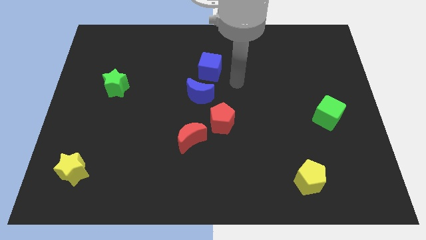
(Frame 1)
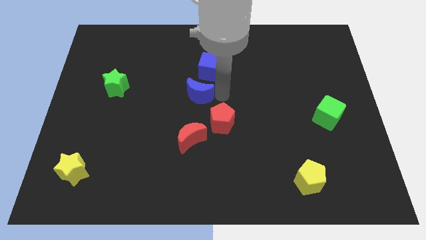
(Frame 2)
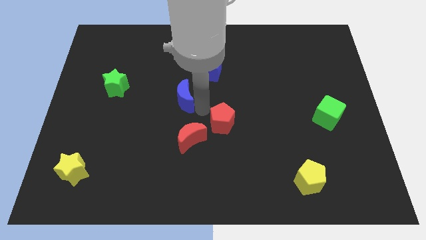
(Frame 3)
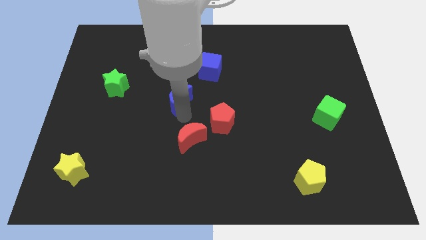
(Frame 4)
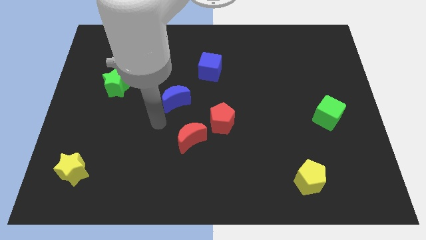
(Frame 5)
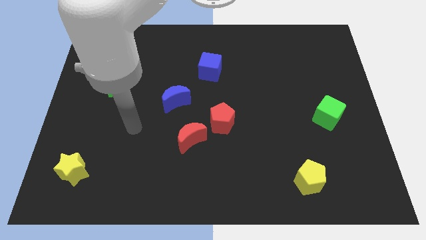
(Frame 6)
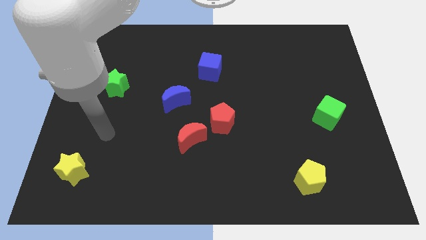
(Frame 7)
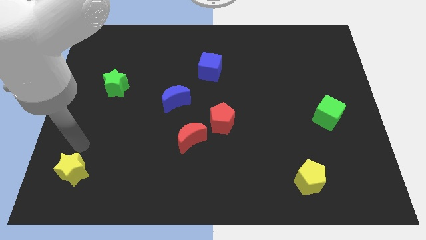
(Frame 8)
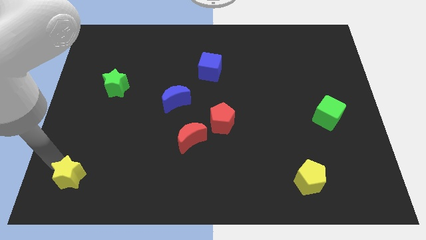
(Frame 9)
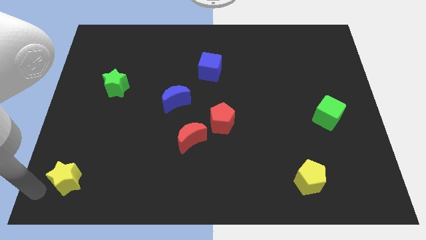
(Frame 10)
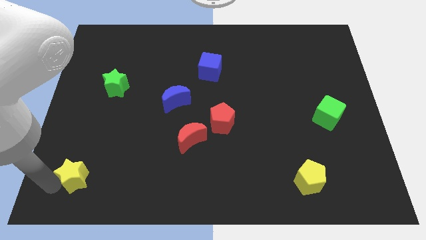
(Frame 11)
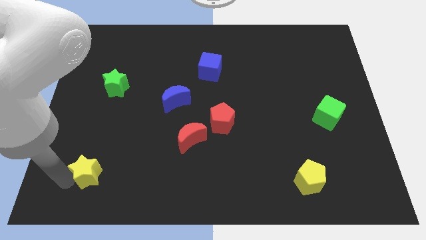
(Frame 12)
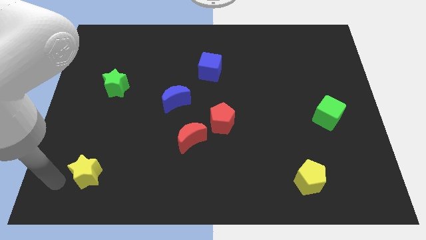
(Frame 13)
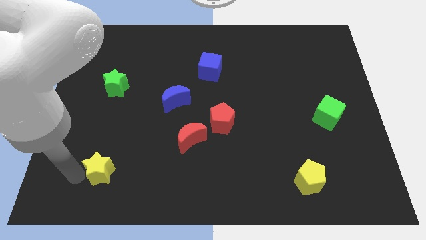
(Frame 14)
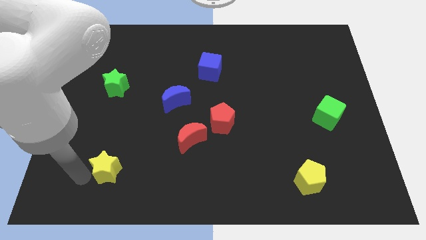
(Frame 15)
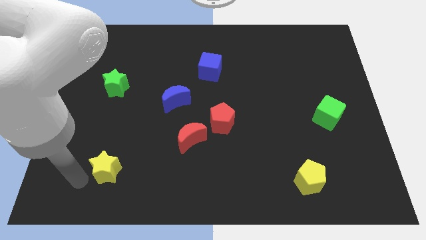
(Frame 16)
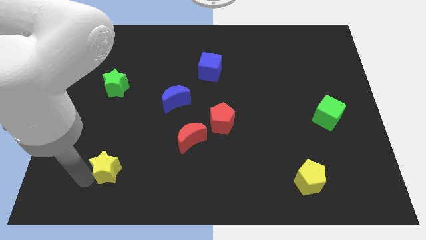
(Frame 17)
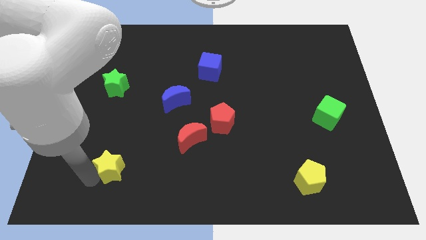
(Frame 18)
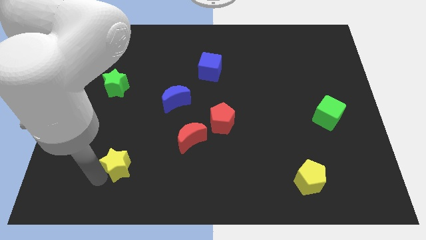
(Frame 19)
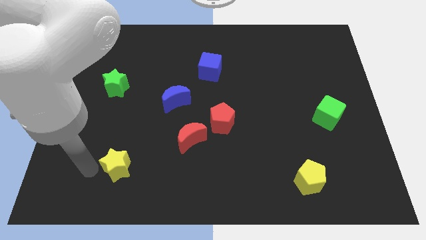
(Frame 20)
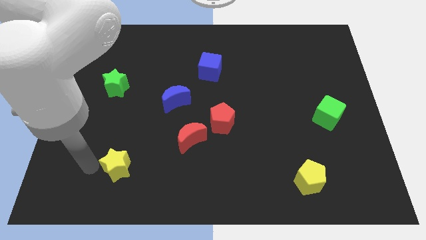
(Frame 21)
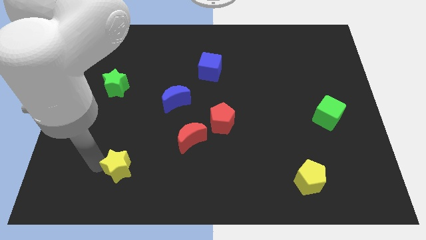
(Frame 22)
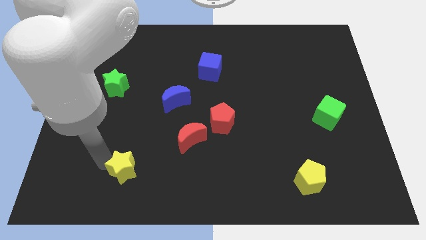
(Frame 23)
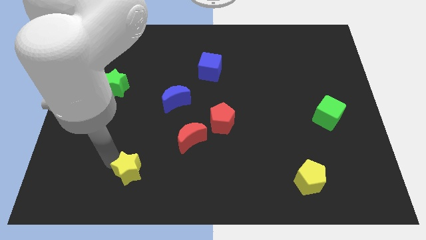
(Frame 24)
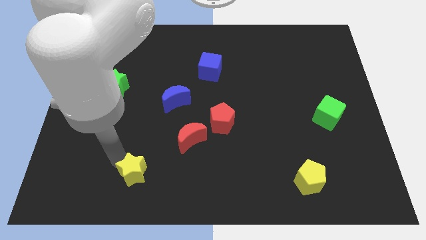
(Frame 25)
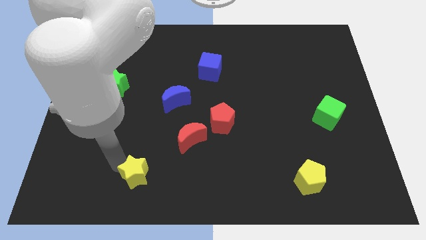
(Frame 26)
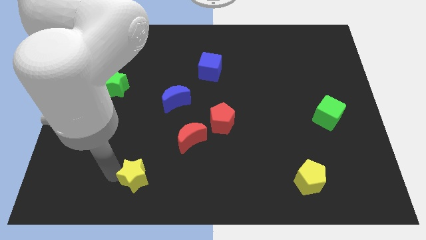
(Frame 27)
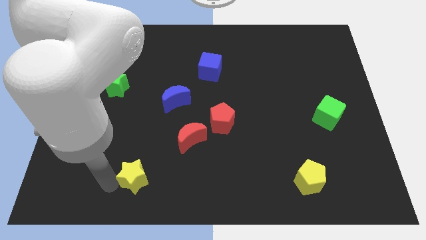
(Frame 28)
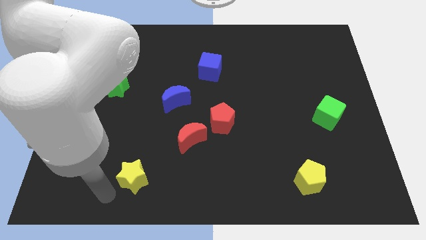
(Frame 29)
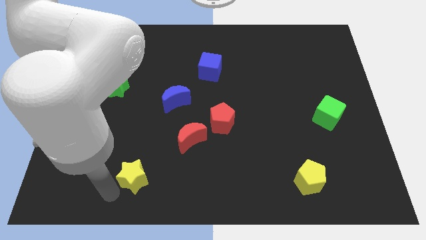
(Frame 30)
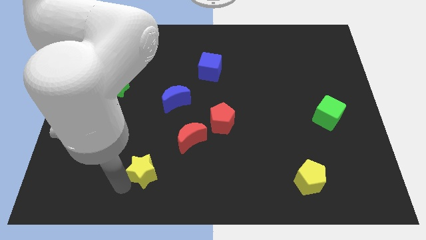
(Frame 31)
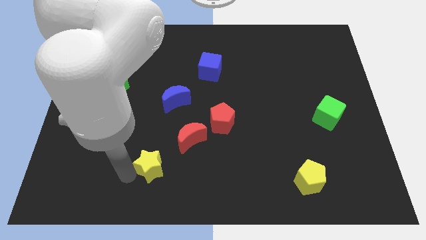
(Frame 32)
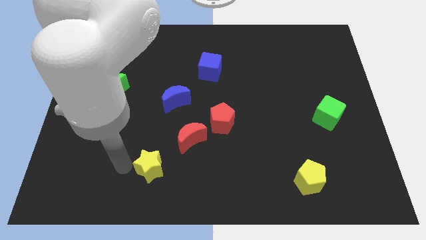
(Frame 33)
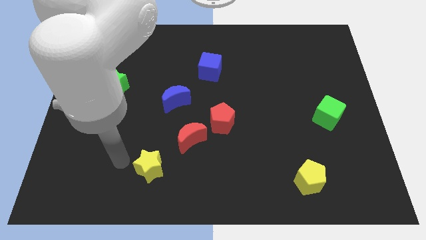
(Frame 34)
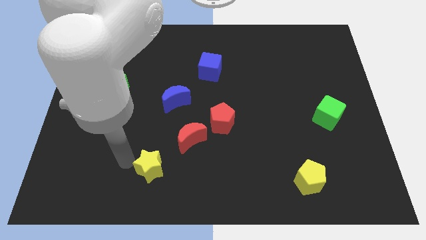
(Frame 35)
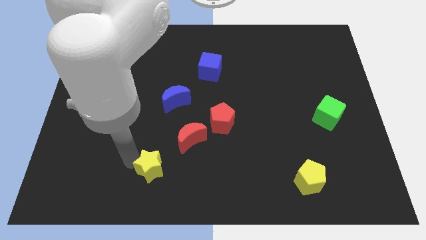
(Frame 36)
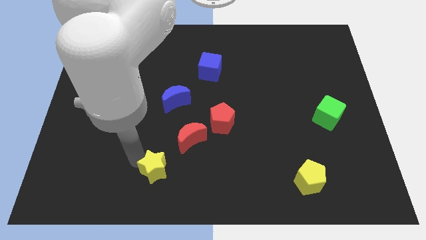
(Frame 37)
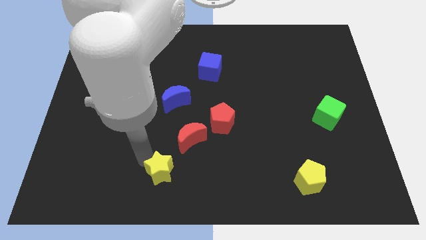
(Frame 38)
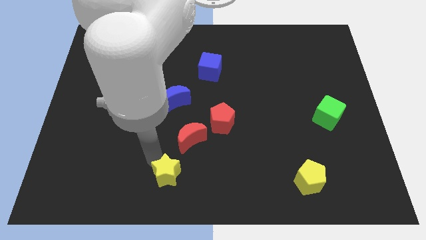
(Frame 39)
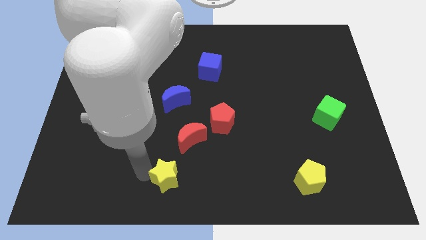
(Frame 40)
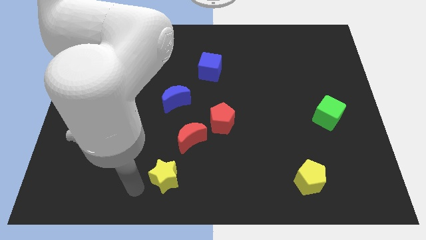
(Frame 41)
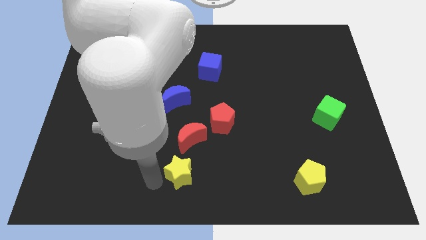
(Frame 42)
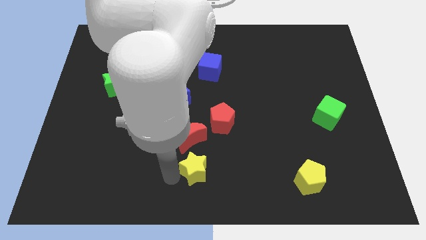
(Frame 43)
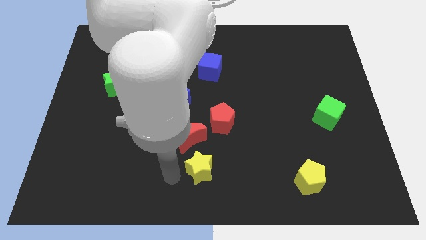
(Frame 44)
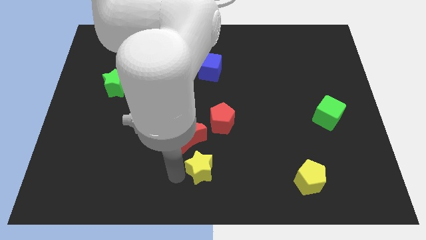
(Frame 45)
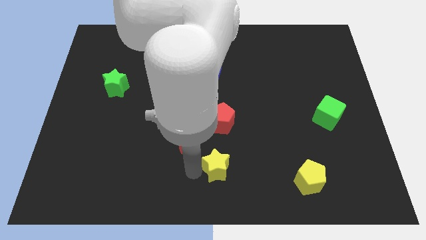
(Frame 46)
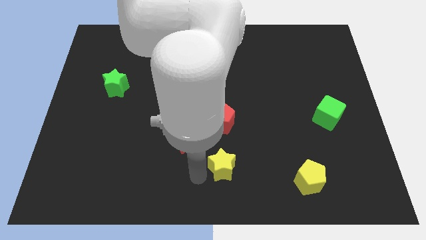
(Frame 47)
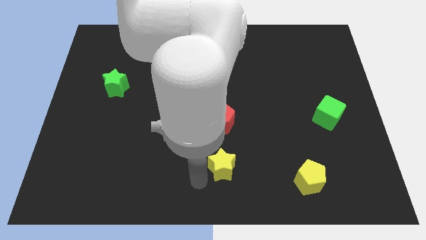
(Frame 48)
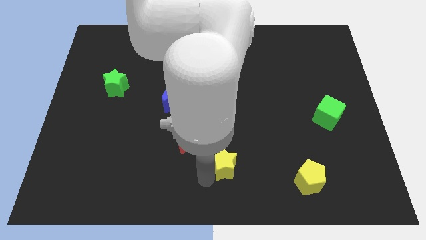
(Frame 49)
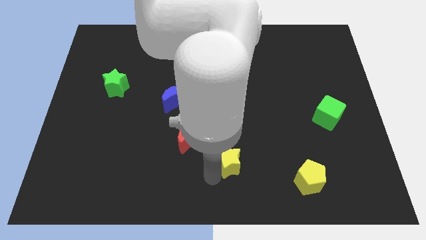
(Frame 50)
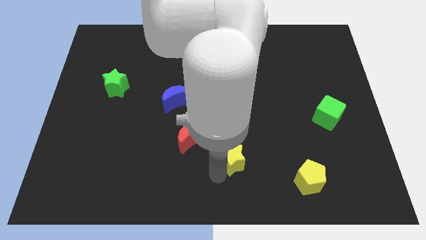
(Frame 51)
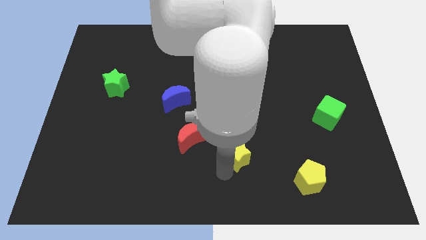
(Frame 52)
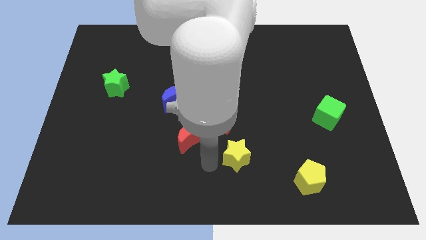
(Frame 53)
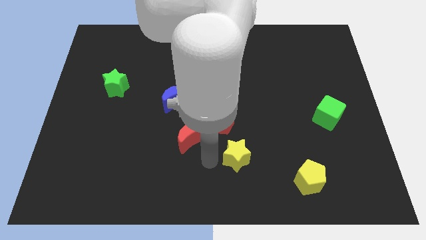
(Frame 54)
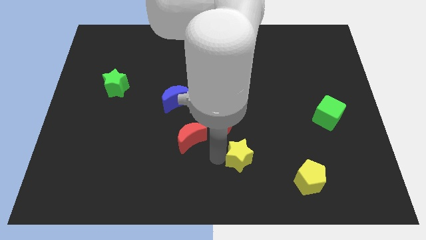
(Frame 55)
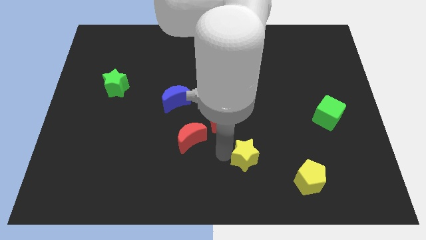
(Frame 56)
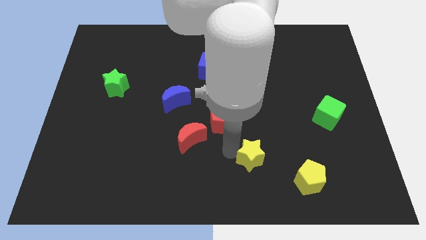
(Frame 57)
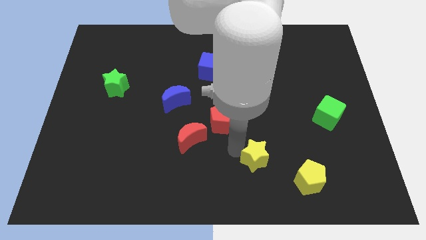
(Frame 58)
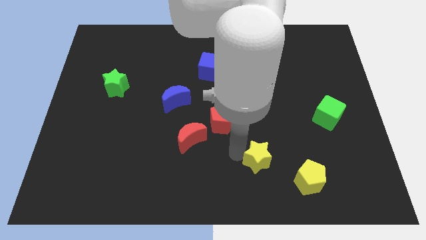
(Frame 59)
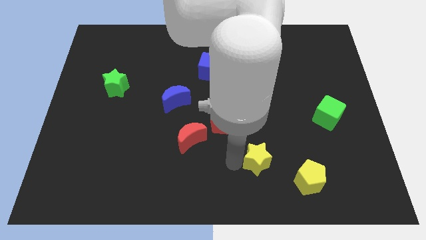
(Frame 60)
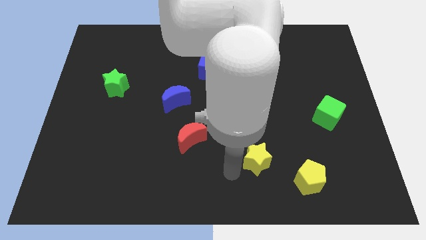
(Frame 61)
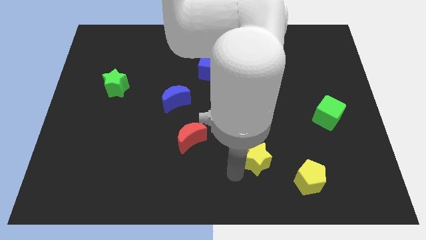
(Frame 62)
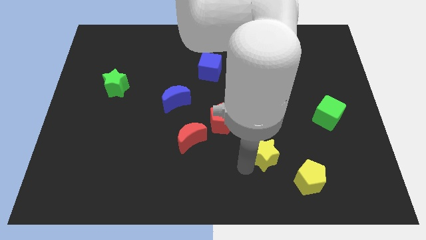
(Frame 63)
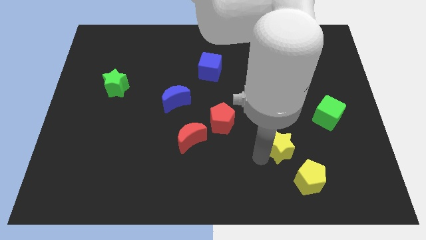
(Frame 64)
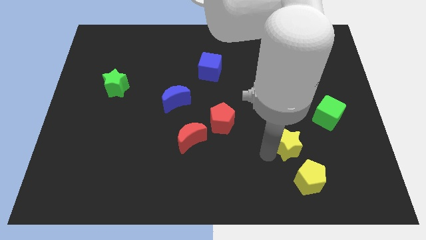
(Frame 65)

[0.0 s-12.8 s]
push the yellow star to the top side of the yellow pentagon
